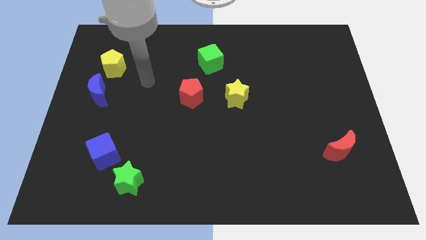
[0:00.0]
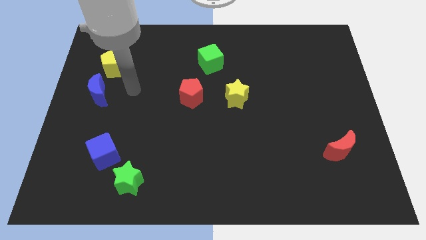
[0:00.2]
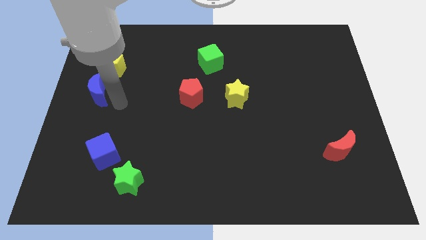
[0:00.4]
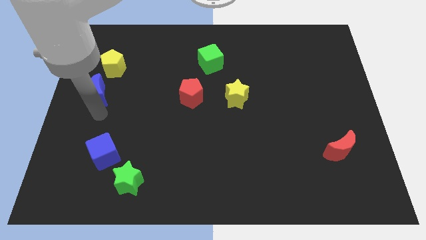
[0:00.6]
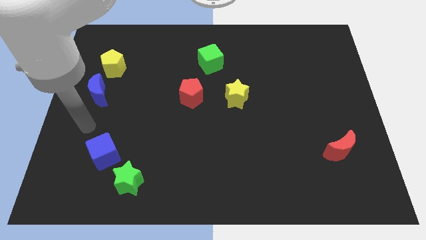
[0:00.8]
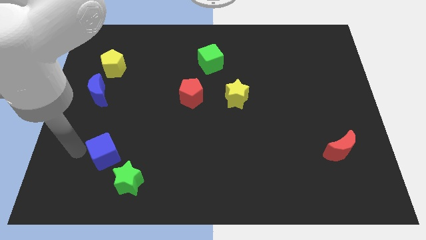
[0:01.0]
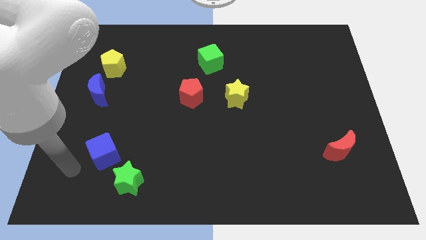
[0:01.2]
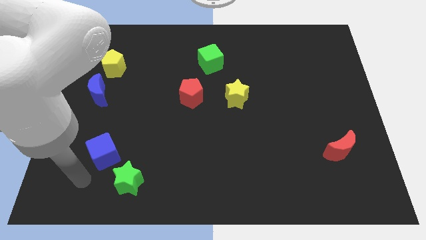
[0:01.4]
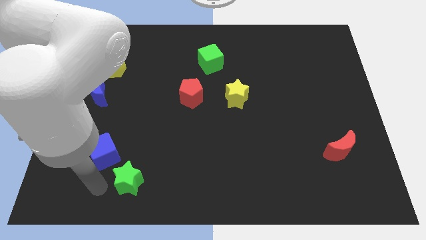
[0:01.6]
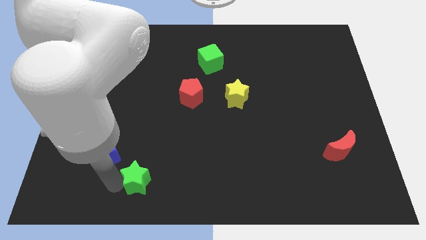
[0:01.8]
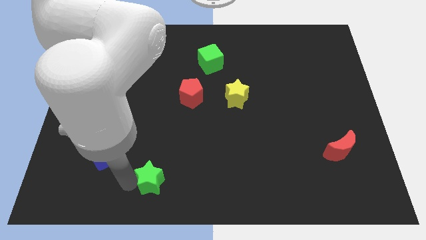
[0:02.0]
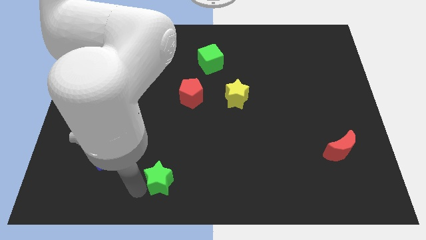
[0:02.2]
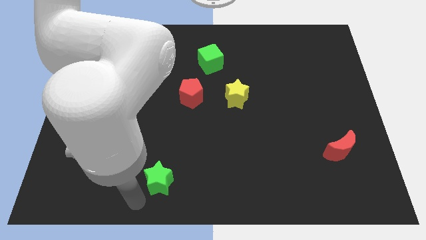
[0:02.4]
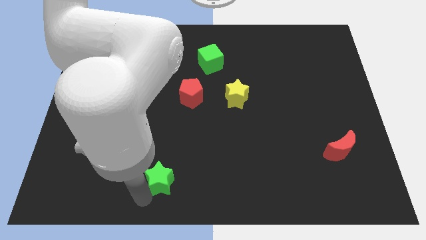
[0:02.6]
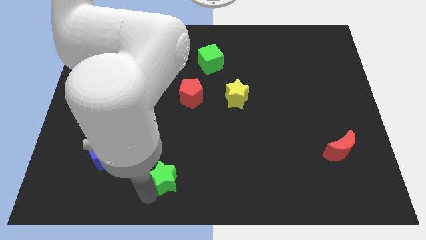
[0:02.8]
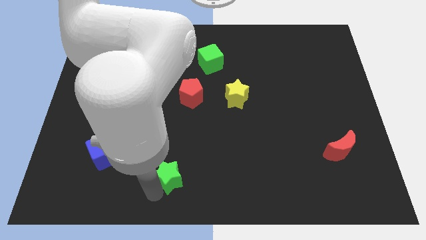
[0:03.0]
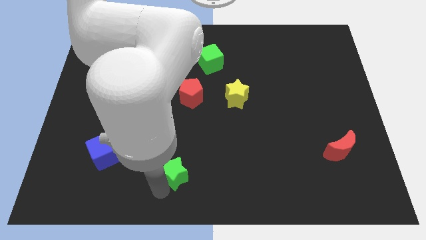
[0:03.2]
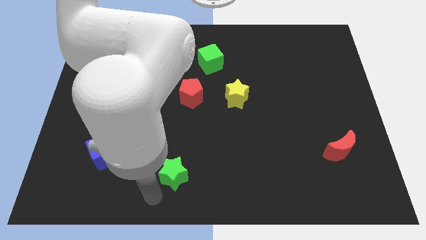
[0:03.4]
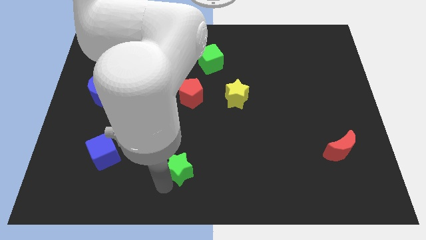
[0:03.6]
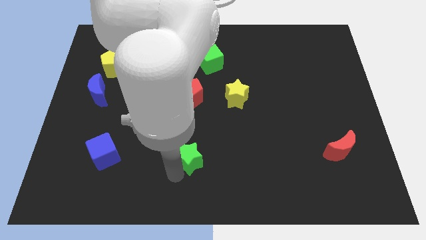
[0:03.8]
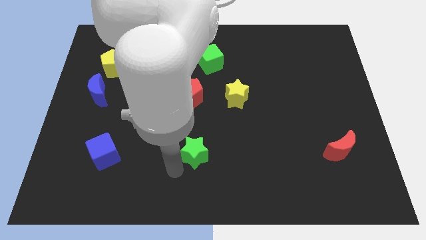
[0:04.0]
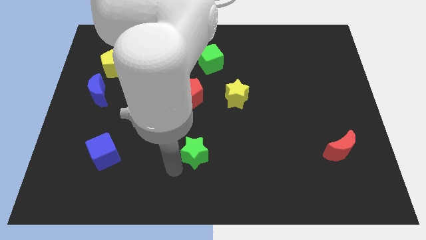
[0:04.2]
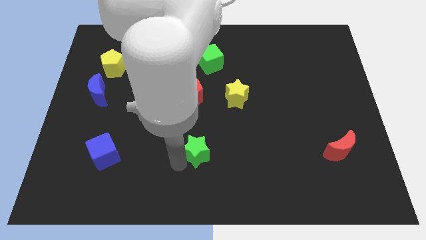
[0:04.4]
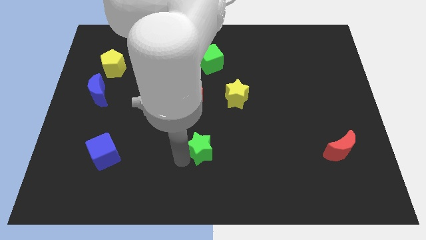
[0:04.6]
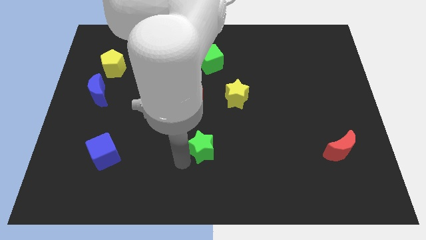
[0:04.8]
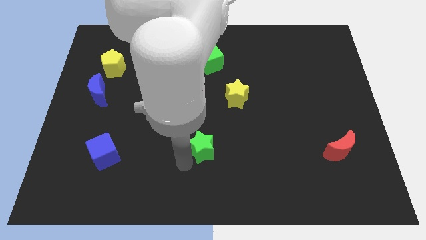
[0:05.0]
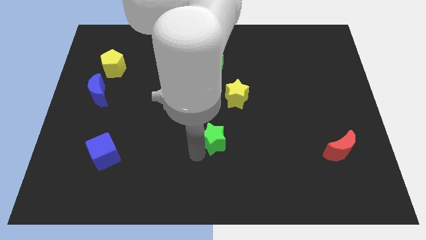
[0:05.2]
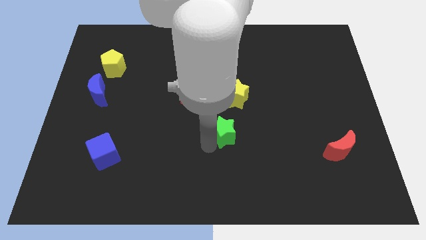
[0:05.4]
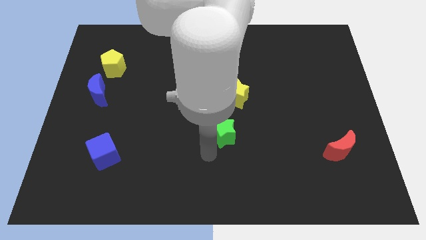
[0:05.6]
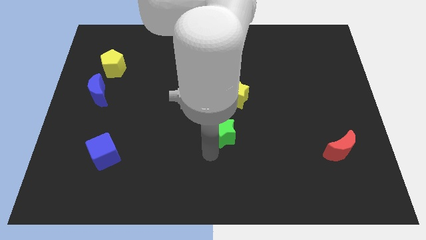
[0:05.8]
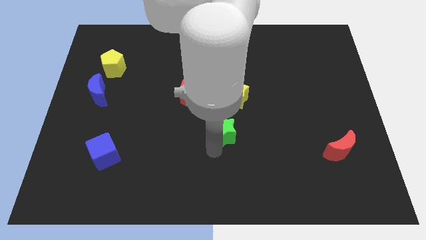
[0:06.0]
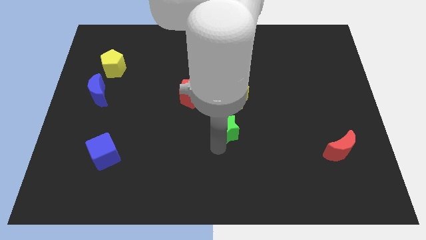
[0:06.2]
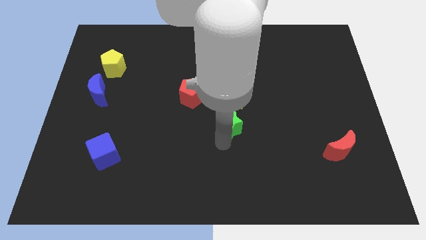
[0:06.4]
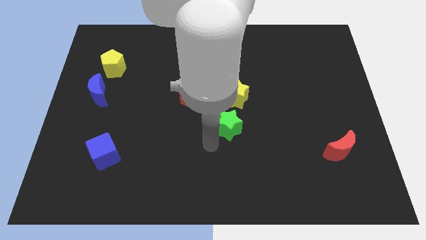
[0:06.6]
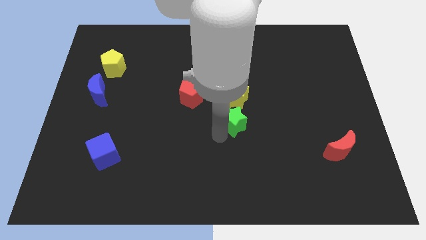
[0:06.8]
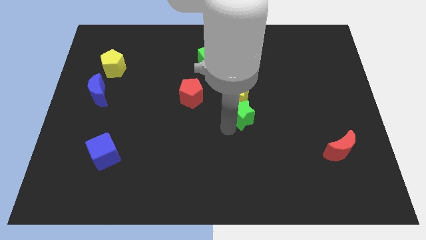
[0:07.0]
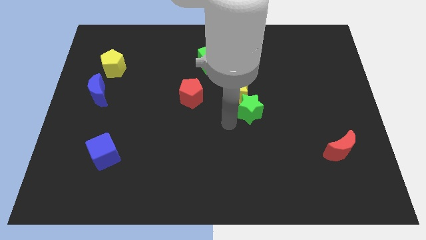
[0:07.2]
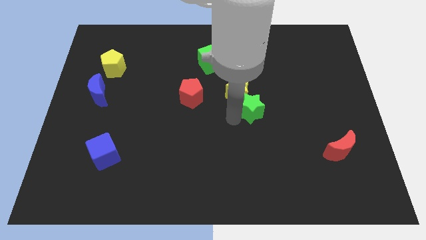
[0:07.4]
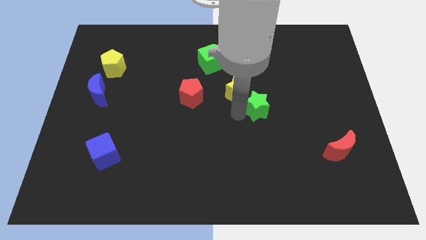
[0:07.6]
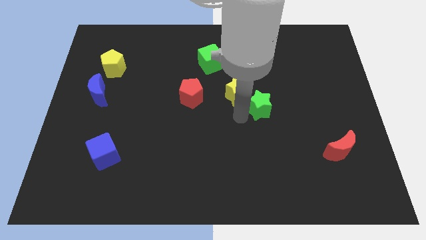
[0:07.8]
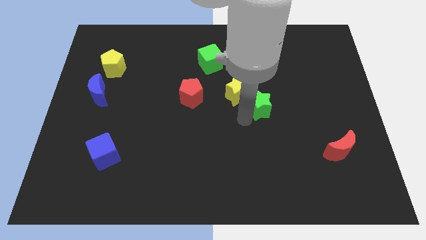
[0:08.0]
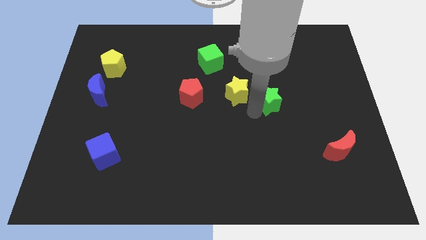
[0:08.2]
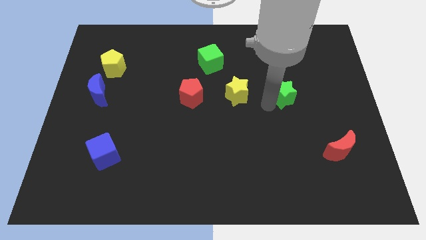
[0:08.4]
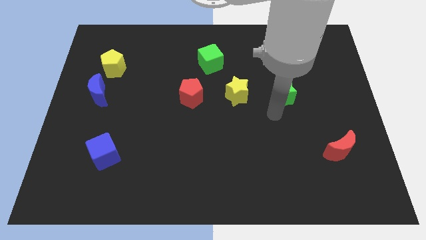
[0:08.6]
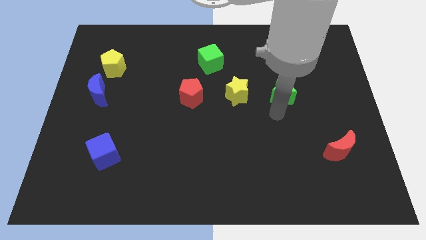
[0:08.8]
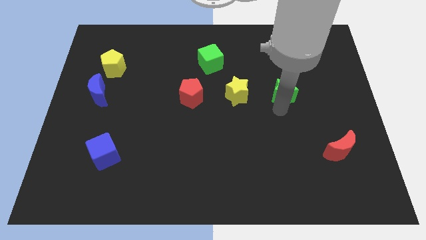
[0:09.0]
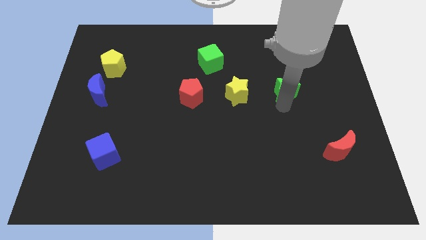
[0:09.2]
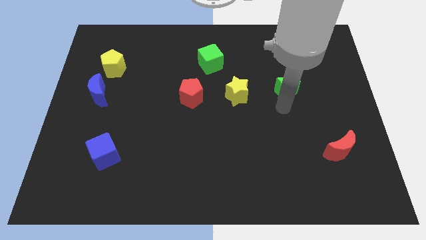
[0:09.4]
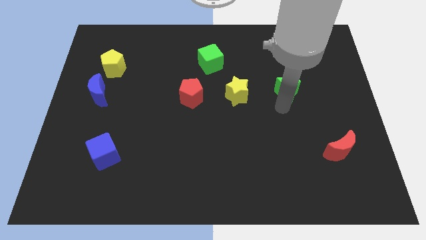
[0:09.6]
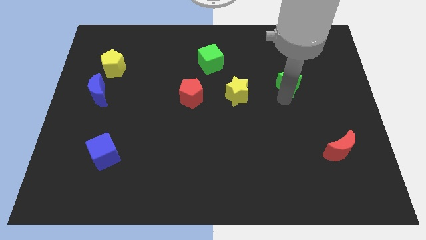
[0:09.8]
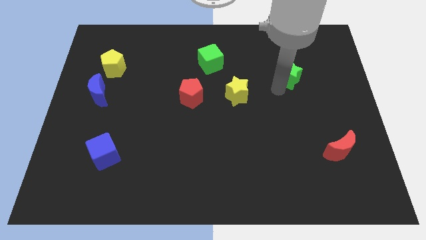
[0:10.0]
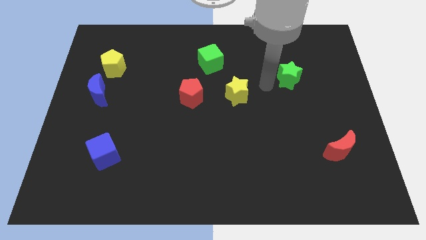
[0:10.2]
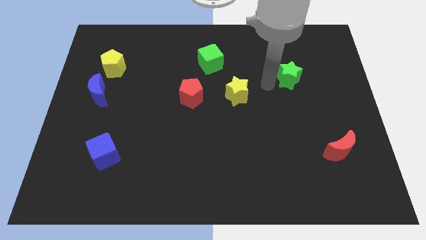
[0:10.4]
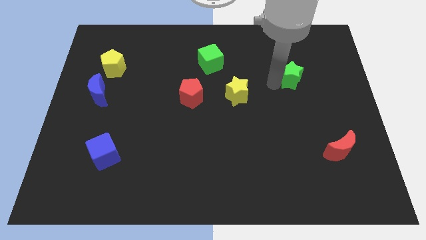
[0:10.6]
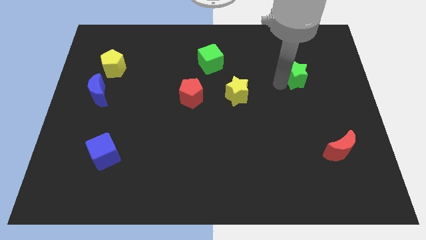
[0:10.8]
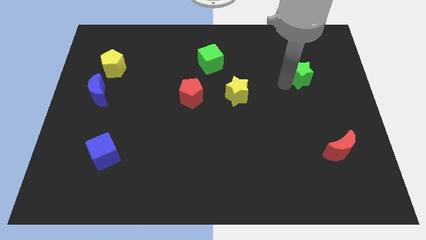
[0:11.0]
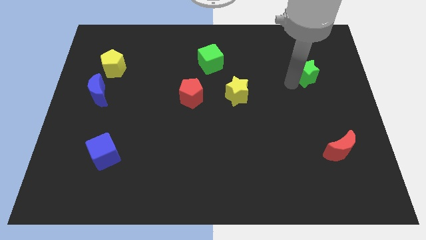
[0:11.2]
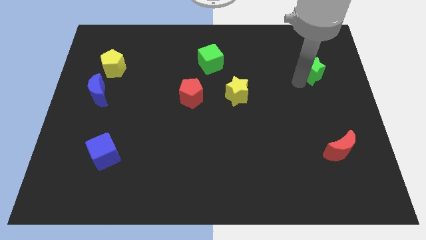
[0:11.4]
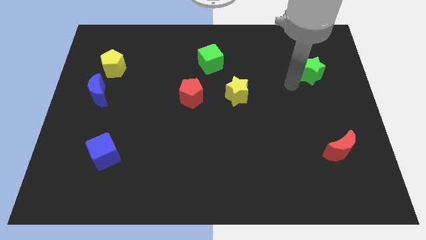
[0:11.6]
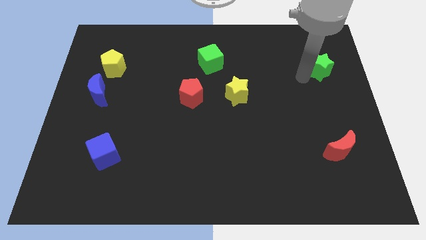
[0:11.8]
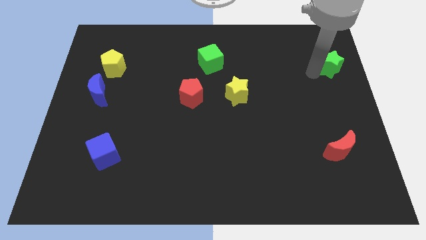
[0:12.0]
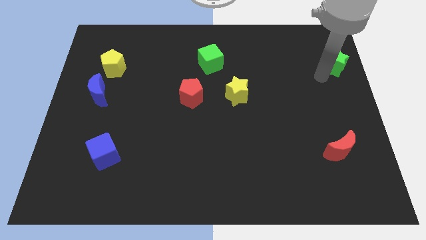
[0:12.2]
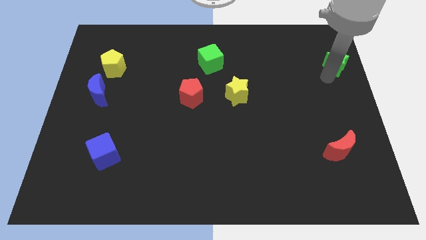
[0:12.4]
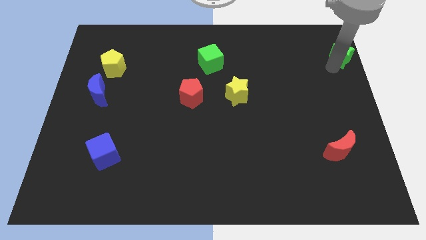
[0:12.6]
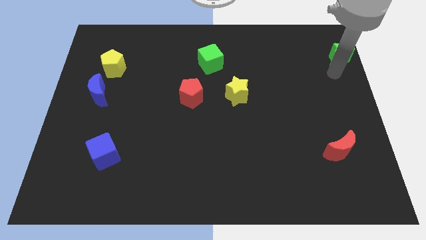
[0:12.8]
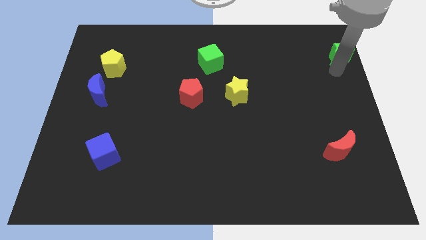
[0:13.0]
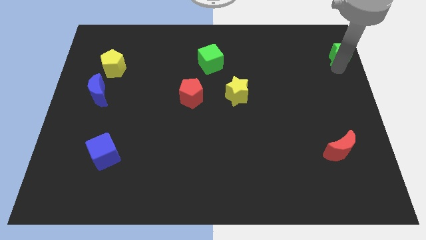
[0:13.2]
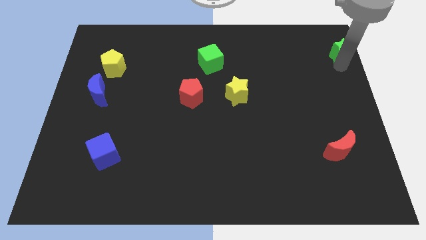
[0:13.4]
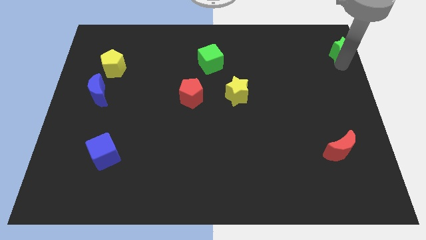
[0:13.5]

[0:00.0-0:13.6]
push the green star to the top right
